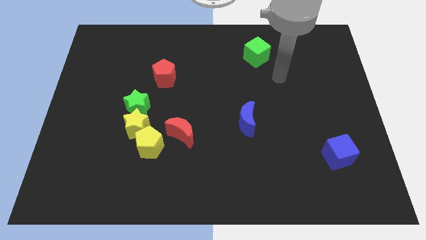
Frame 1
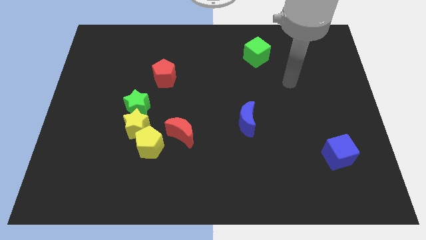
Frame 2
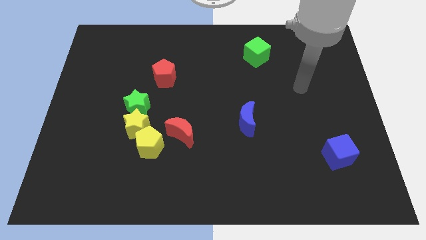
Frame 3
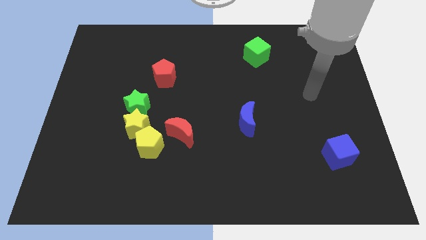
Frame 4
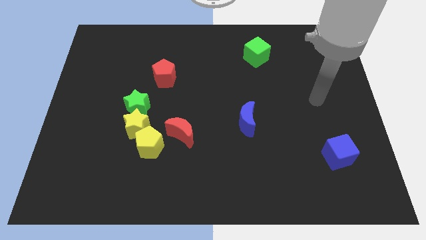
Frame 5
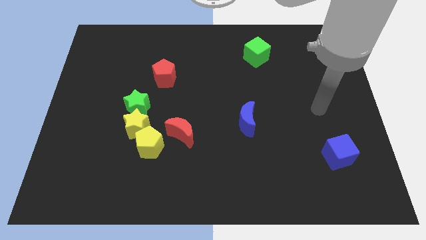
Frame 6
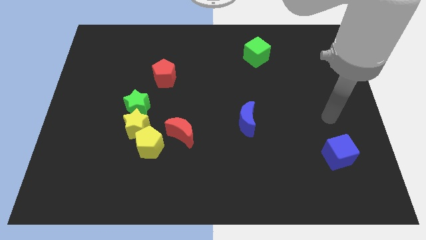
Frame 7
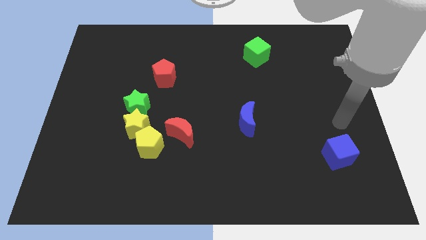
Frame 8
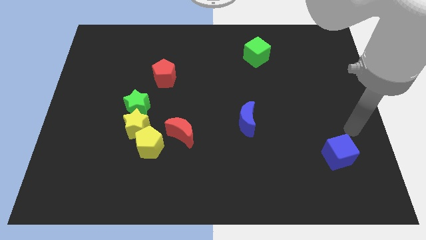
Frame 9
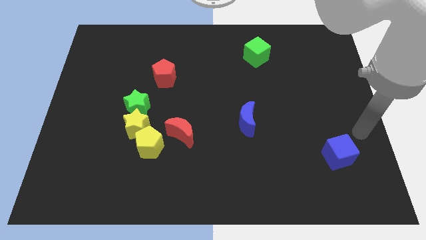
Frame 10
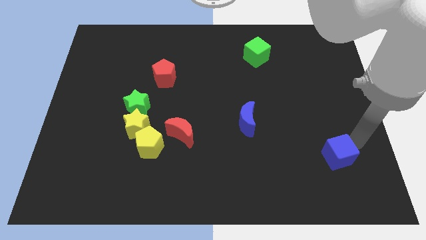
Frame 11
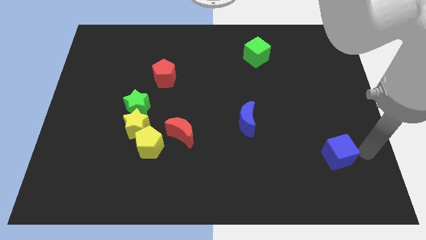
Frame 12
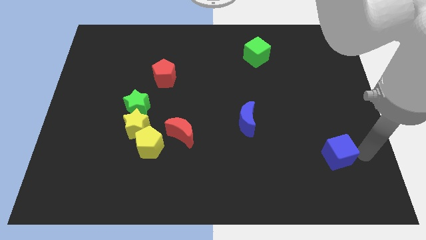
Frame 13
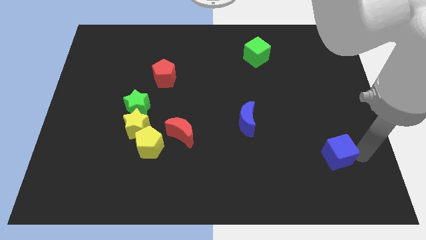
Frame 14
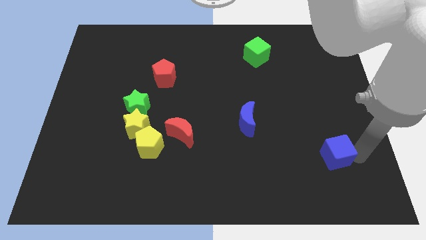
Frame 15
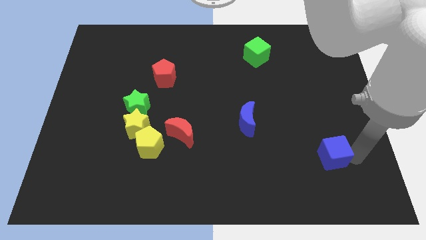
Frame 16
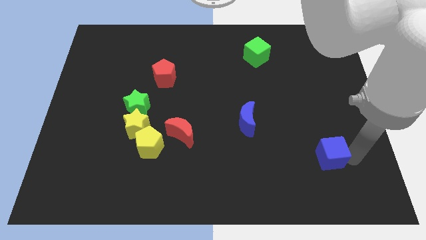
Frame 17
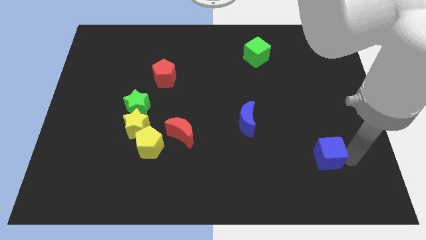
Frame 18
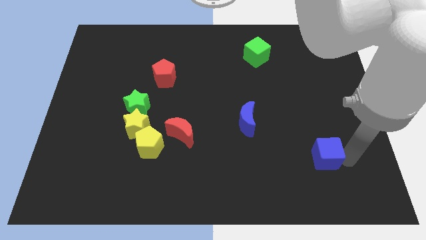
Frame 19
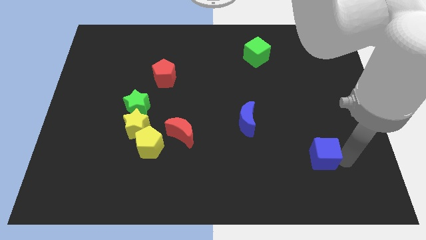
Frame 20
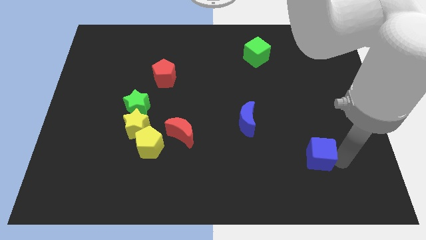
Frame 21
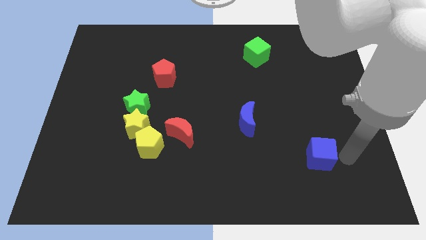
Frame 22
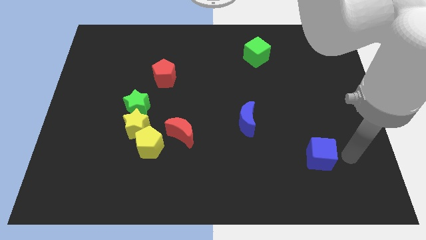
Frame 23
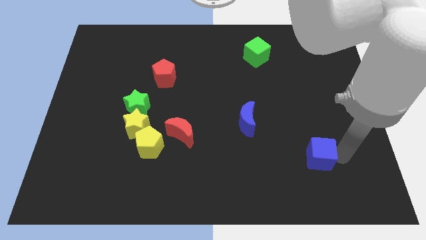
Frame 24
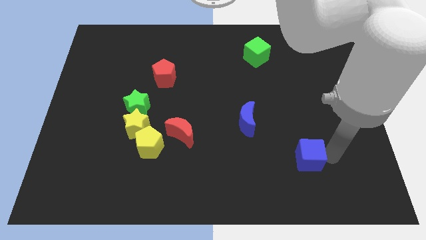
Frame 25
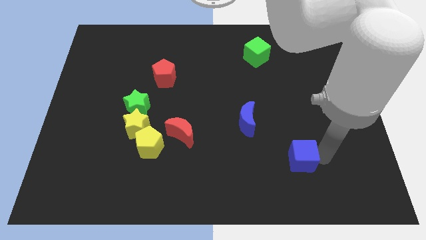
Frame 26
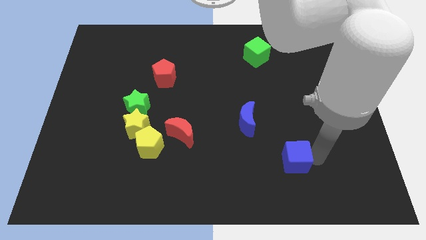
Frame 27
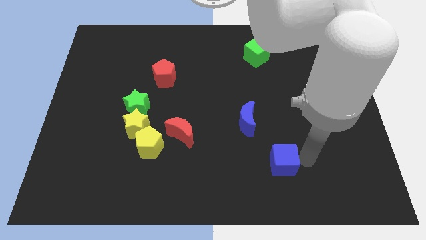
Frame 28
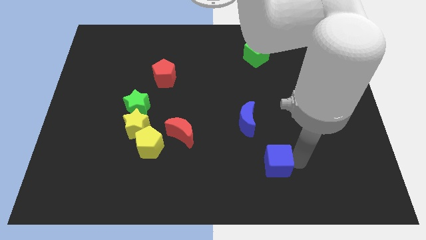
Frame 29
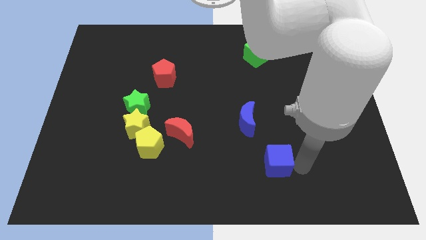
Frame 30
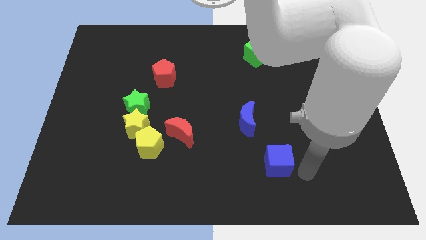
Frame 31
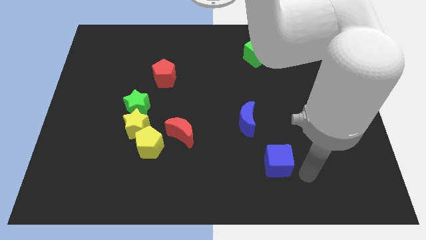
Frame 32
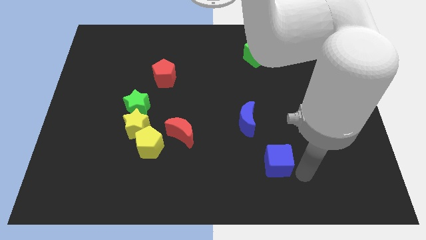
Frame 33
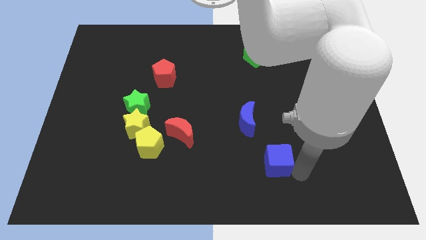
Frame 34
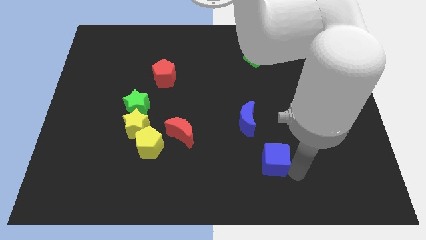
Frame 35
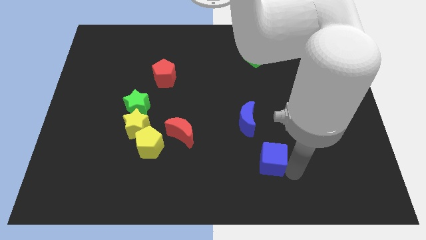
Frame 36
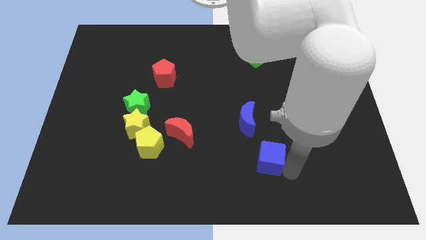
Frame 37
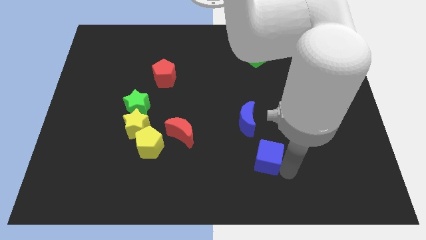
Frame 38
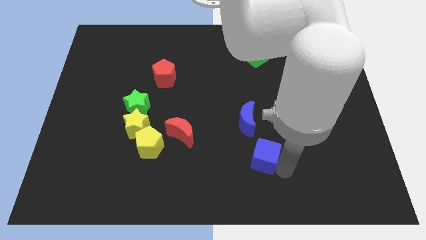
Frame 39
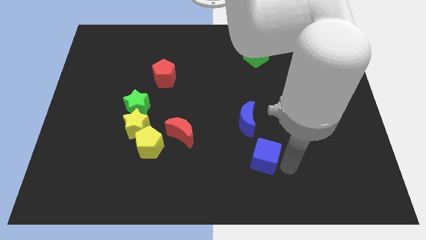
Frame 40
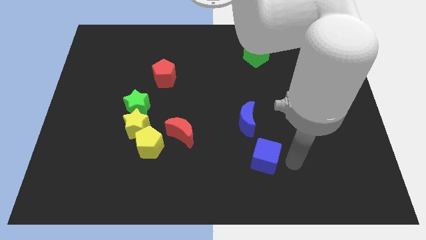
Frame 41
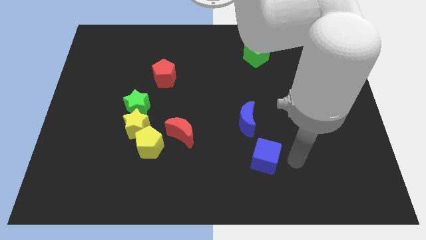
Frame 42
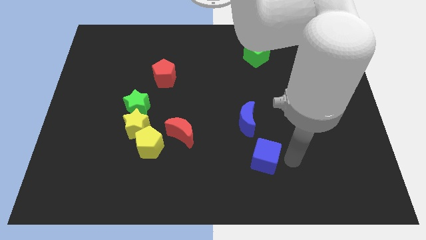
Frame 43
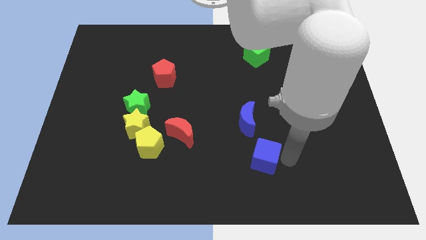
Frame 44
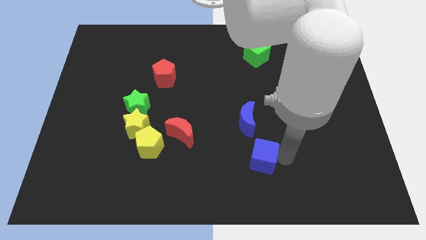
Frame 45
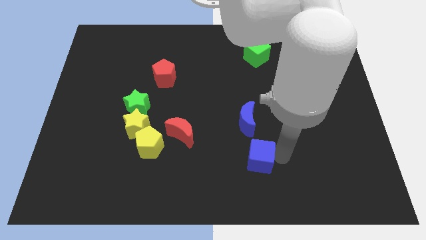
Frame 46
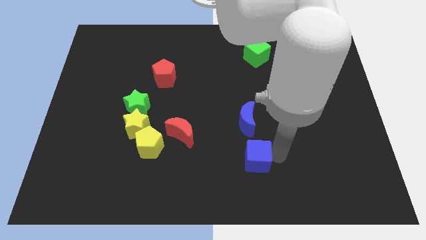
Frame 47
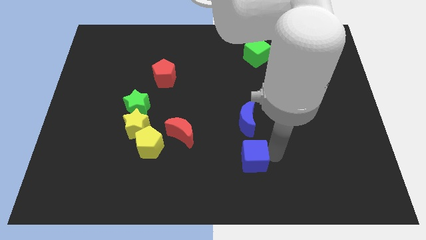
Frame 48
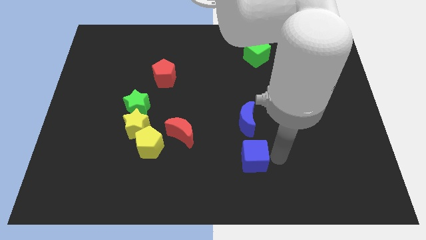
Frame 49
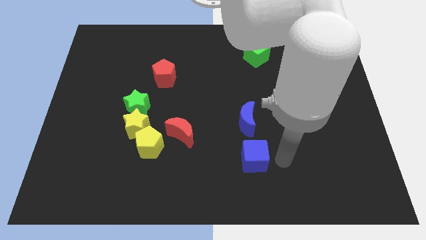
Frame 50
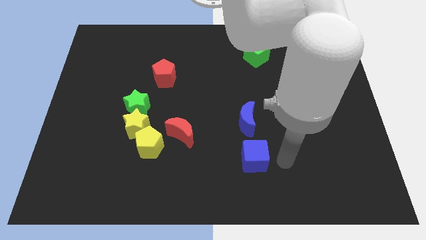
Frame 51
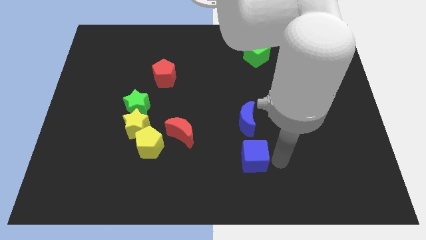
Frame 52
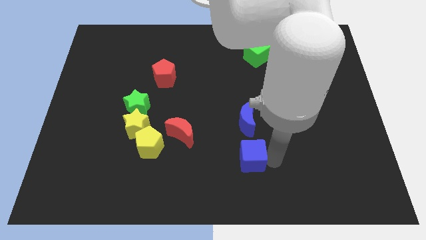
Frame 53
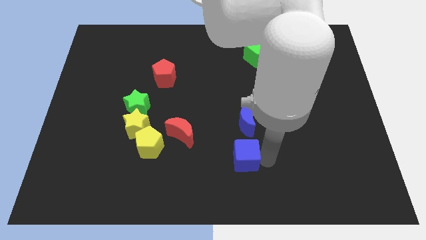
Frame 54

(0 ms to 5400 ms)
push the blue cube left

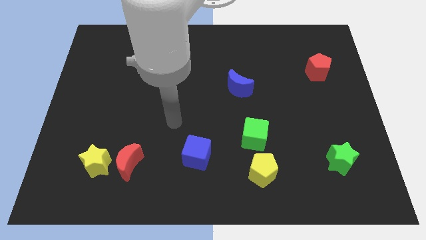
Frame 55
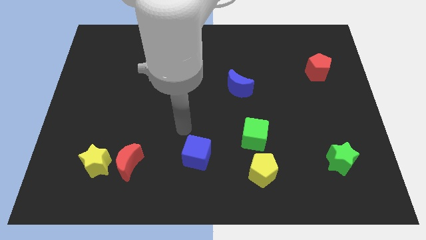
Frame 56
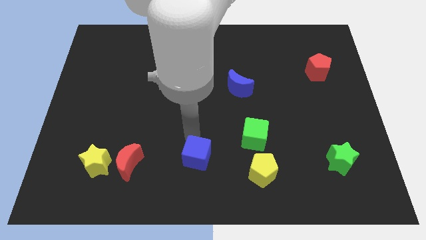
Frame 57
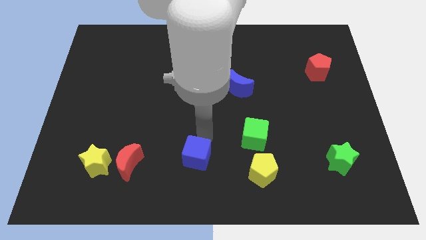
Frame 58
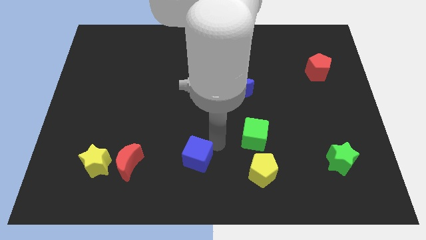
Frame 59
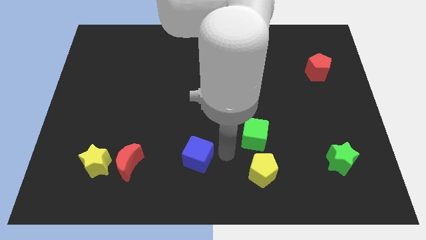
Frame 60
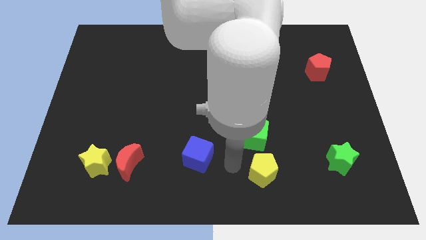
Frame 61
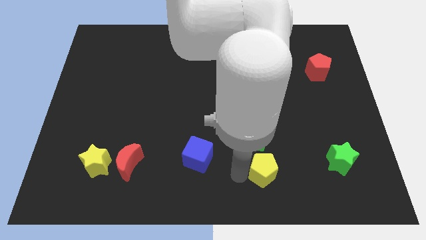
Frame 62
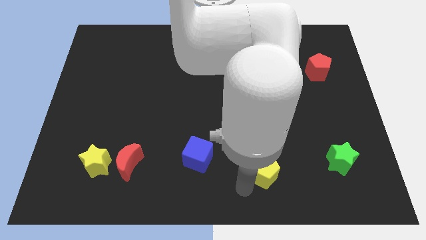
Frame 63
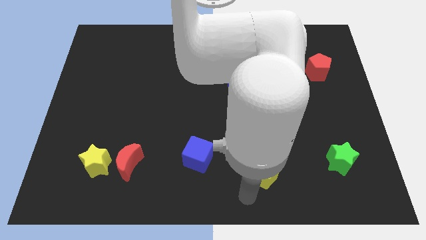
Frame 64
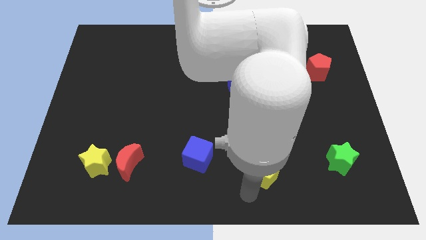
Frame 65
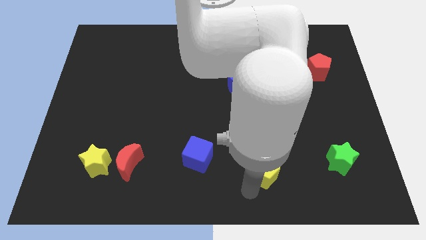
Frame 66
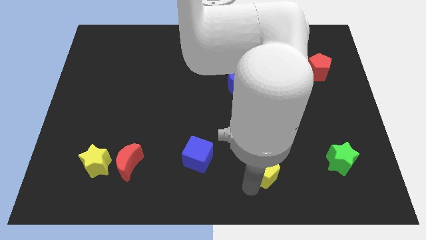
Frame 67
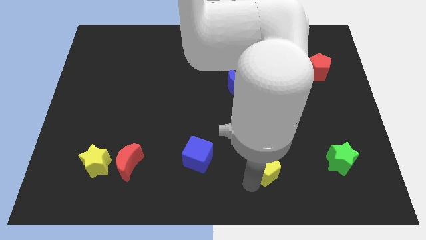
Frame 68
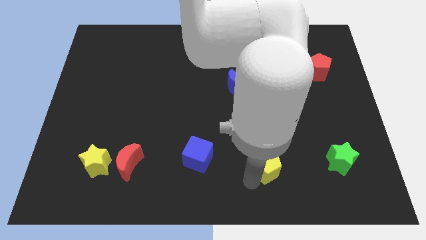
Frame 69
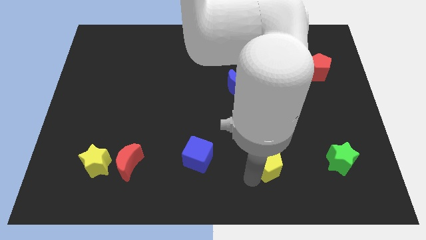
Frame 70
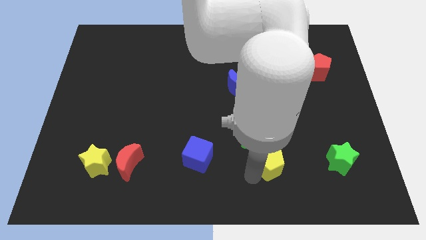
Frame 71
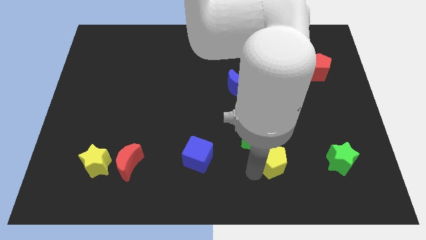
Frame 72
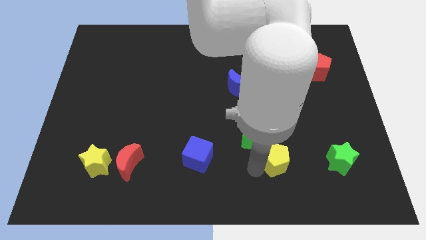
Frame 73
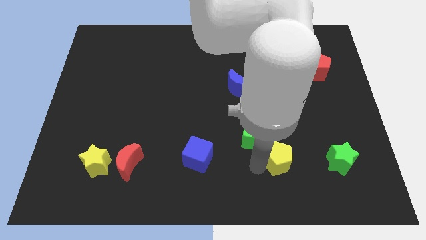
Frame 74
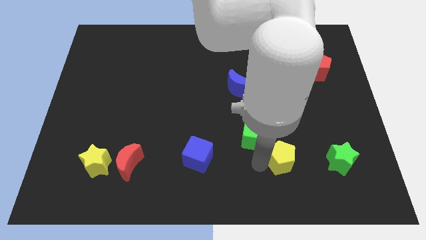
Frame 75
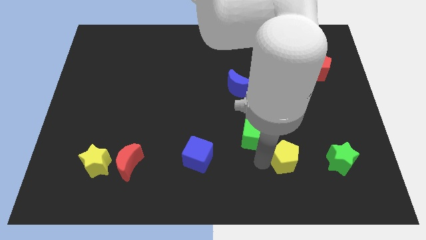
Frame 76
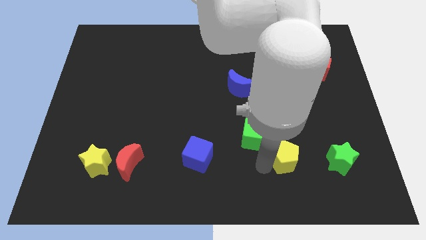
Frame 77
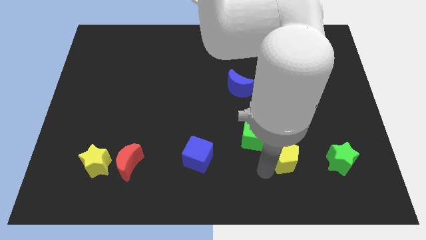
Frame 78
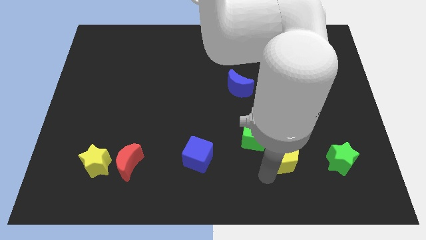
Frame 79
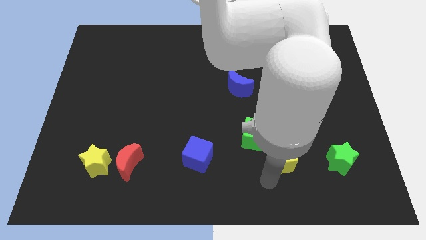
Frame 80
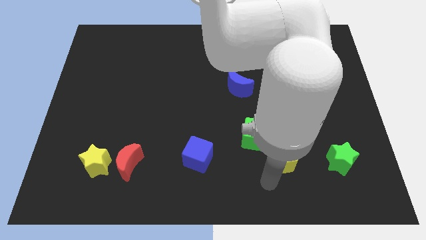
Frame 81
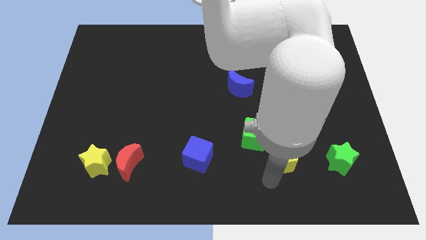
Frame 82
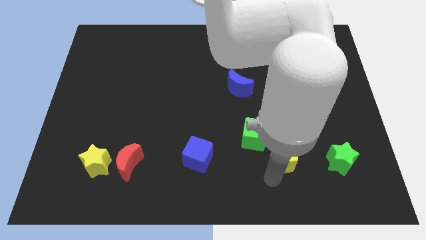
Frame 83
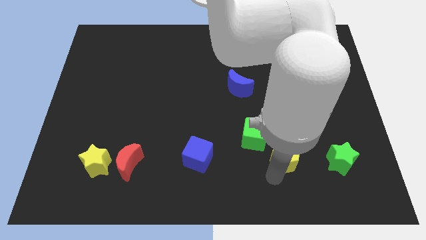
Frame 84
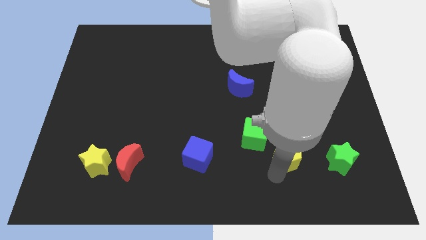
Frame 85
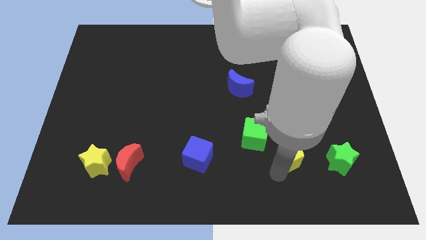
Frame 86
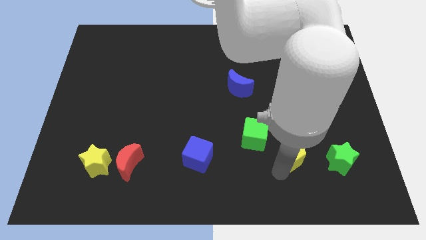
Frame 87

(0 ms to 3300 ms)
push the yellow pentagon up and to the right a little bit
